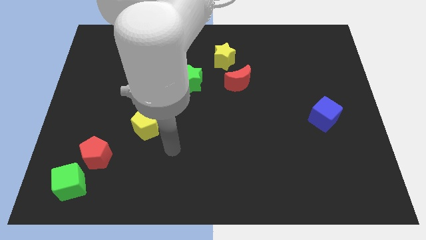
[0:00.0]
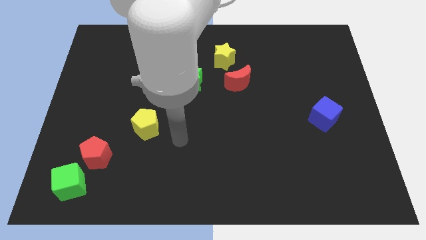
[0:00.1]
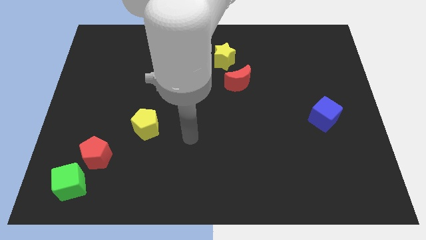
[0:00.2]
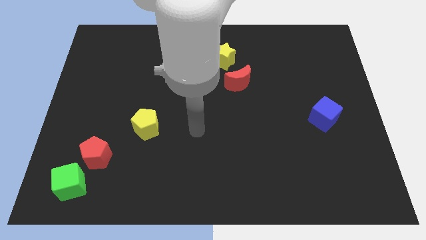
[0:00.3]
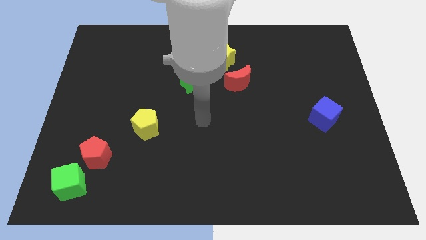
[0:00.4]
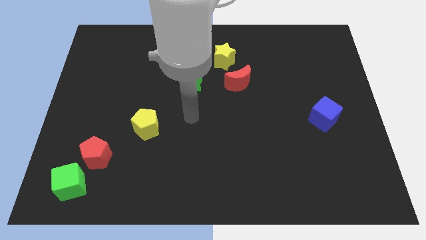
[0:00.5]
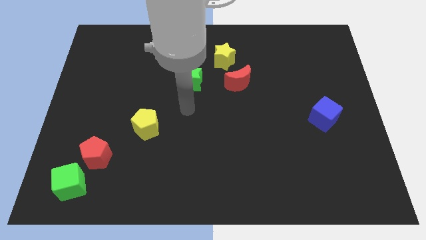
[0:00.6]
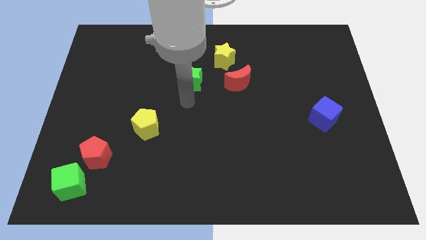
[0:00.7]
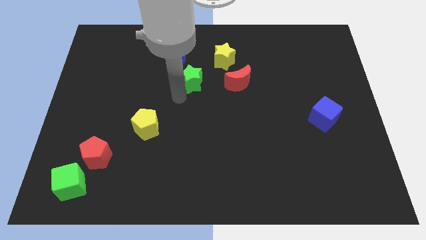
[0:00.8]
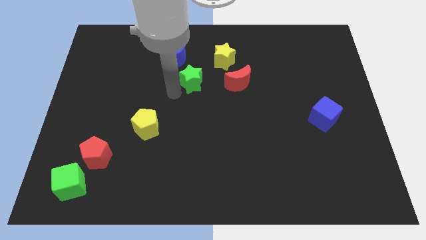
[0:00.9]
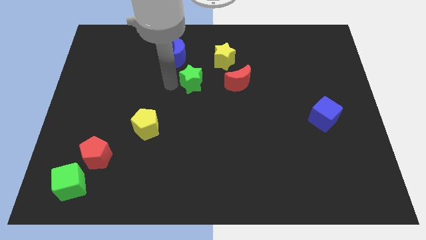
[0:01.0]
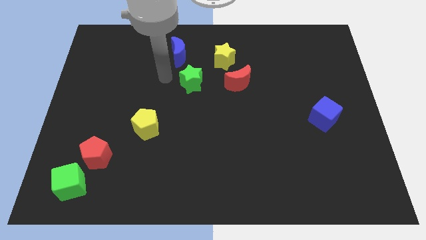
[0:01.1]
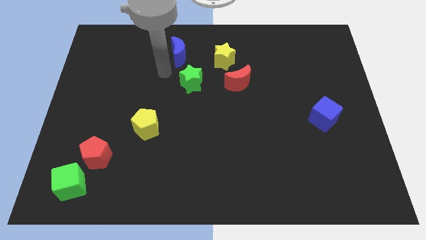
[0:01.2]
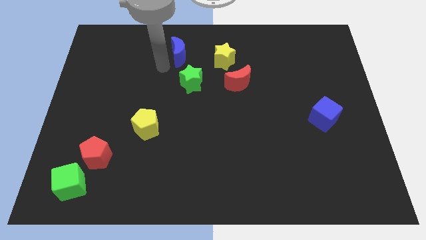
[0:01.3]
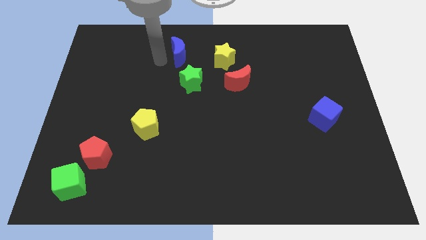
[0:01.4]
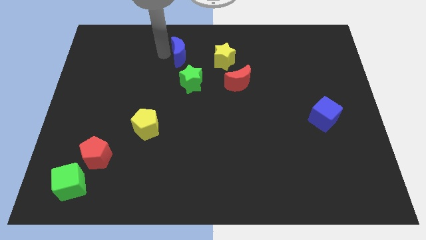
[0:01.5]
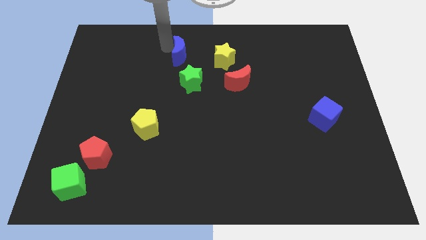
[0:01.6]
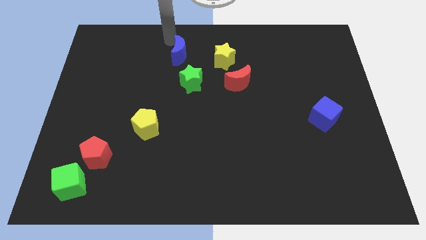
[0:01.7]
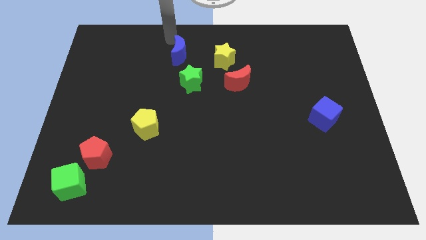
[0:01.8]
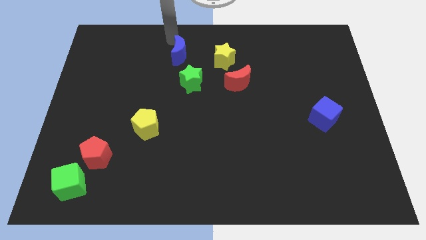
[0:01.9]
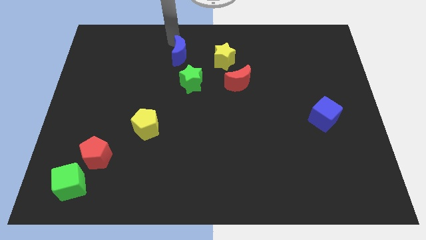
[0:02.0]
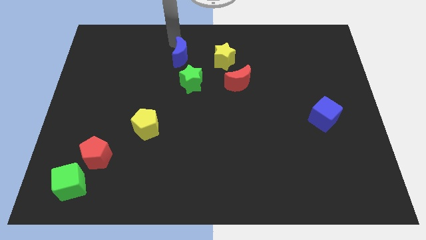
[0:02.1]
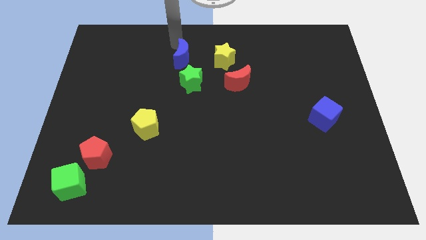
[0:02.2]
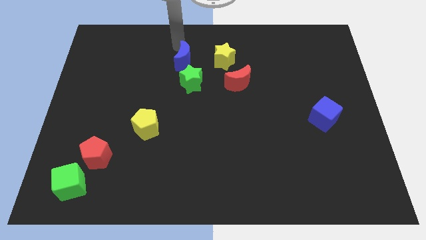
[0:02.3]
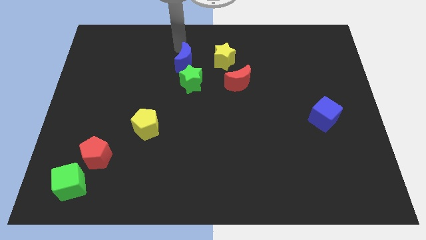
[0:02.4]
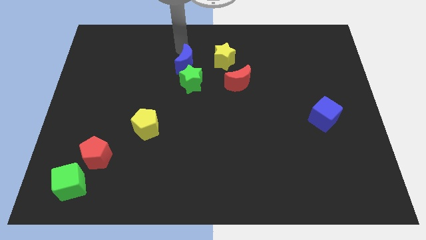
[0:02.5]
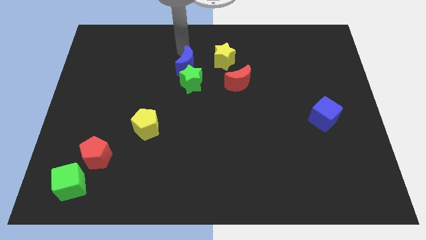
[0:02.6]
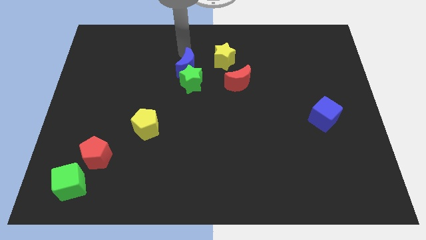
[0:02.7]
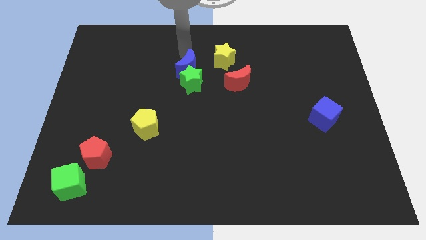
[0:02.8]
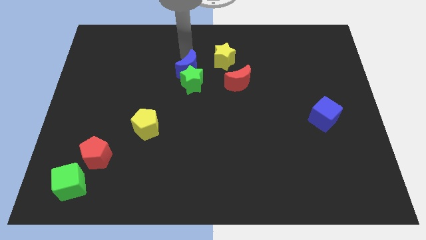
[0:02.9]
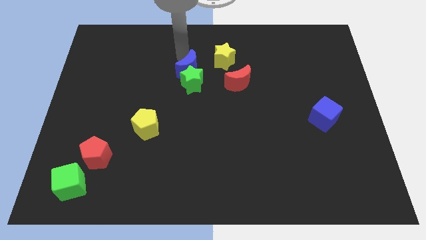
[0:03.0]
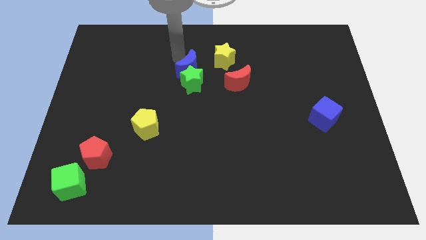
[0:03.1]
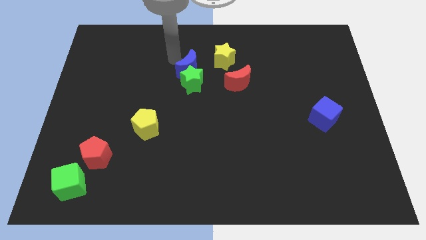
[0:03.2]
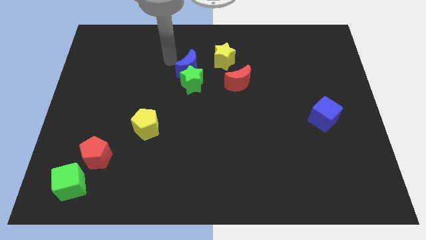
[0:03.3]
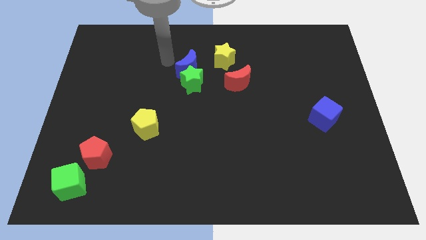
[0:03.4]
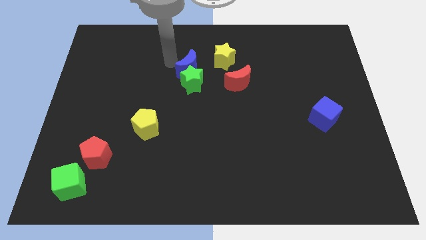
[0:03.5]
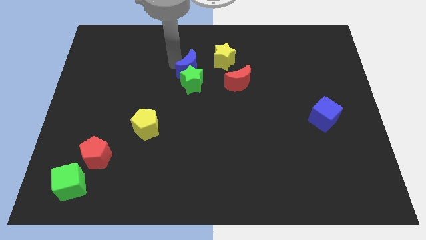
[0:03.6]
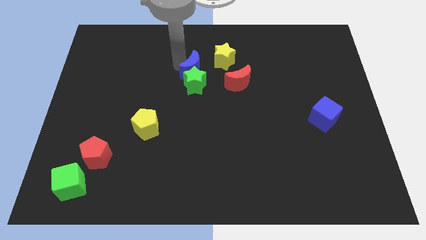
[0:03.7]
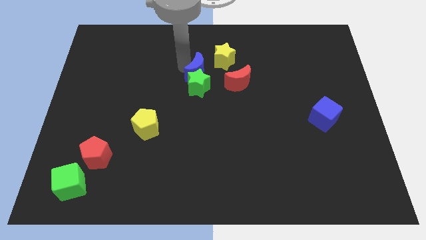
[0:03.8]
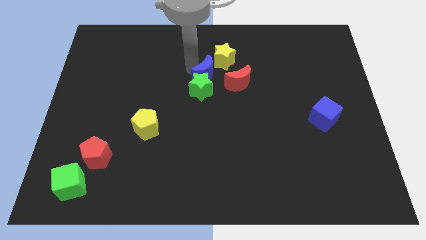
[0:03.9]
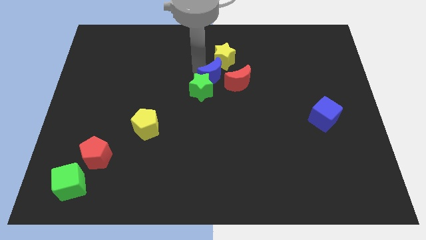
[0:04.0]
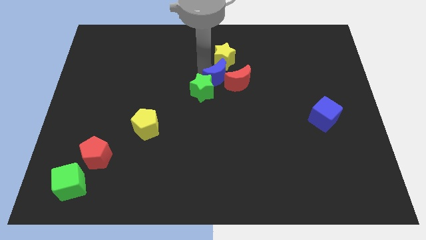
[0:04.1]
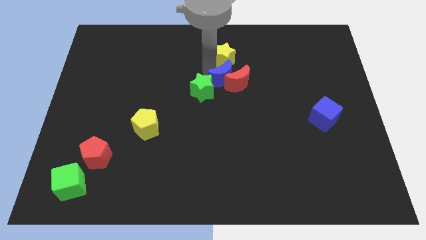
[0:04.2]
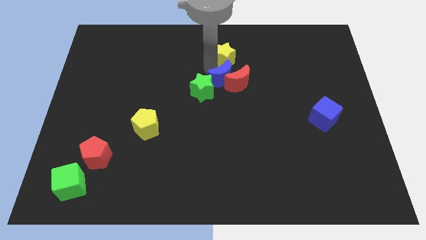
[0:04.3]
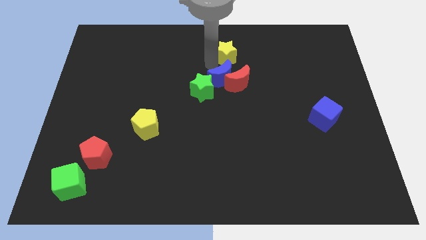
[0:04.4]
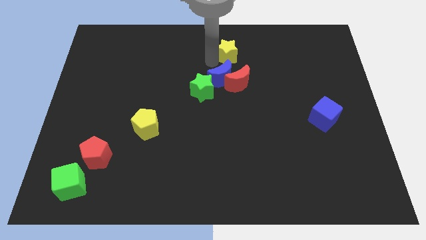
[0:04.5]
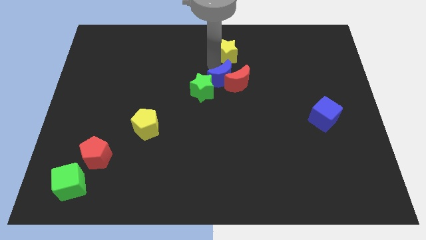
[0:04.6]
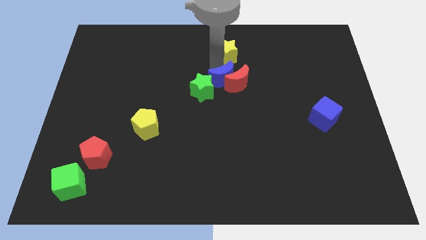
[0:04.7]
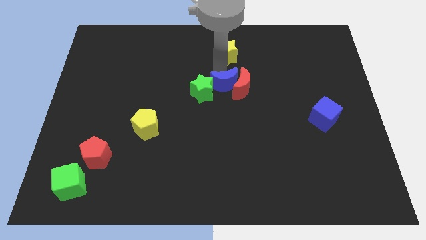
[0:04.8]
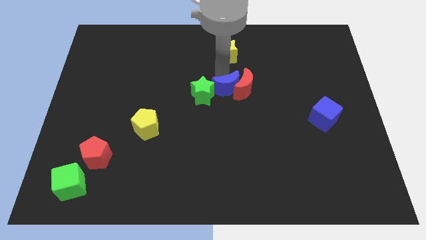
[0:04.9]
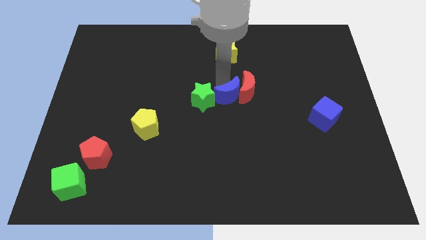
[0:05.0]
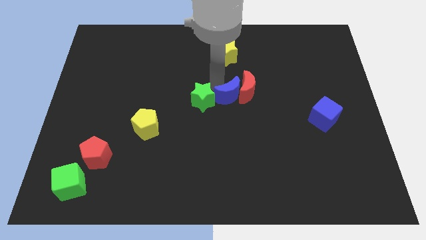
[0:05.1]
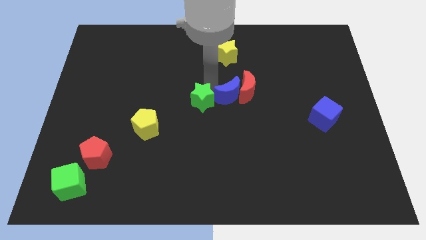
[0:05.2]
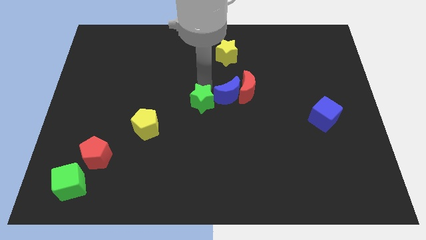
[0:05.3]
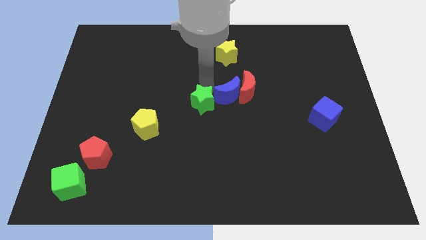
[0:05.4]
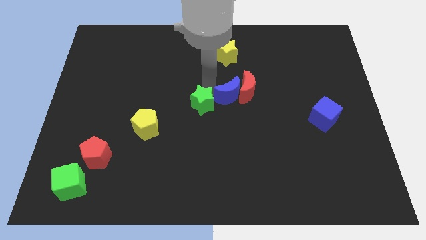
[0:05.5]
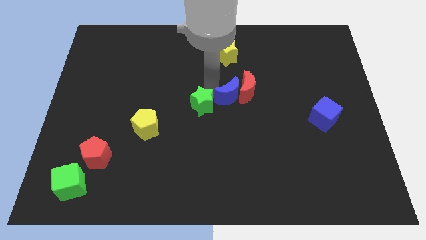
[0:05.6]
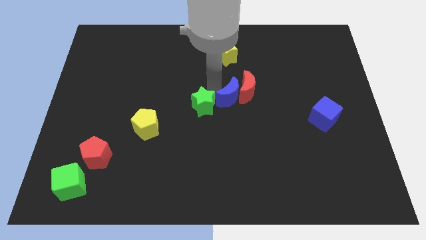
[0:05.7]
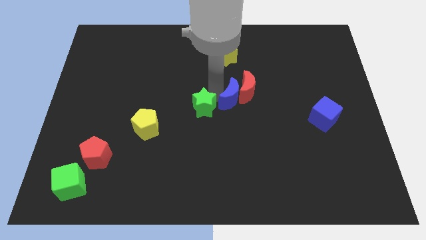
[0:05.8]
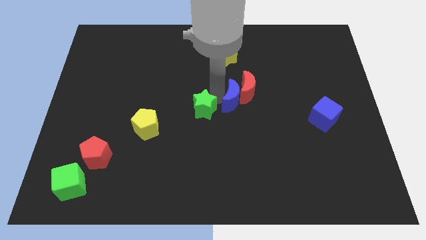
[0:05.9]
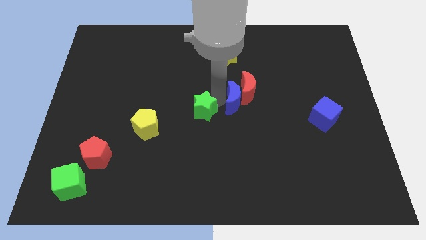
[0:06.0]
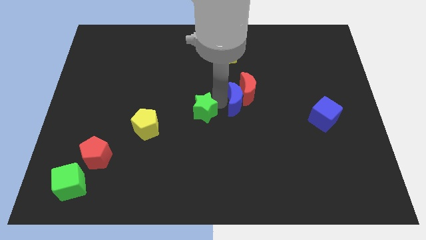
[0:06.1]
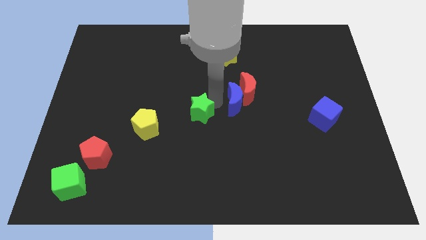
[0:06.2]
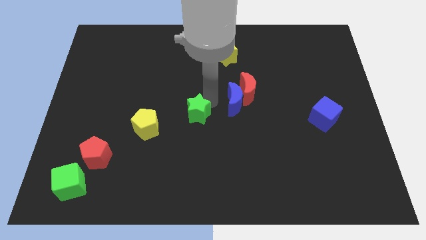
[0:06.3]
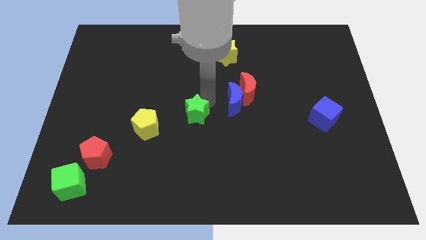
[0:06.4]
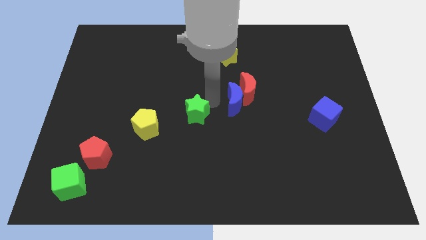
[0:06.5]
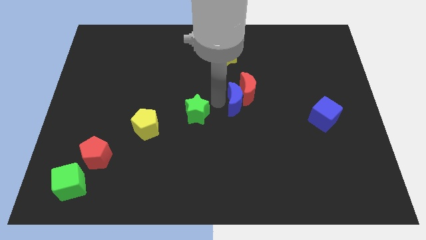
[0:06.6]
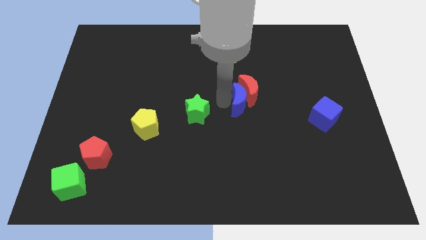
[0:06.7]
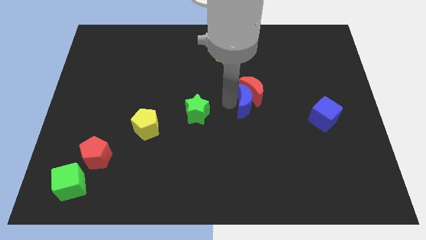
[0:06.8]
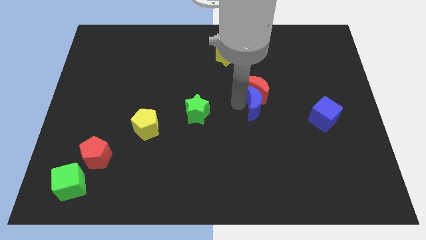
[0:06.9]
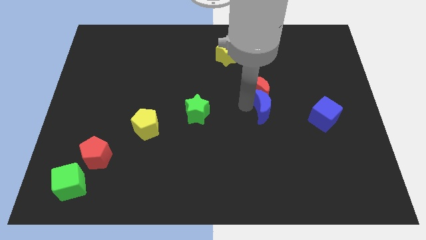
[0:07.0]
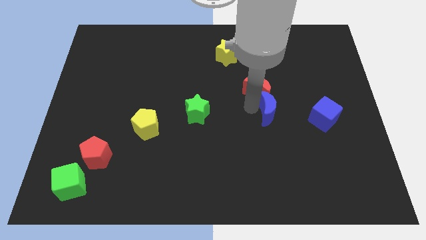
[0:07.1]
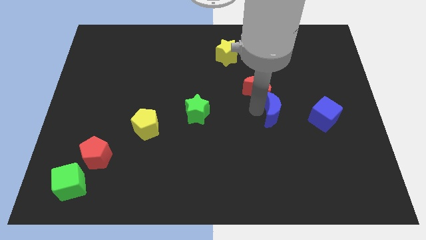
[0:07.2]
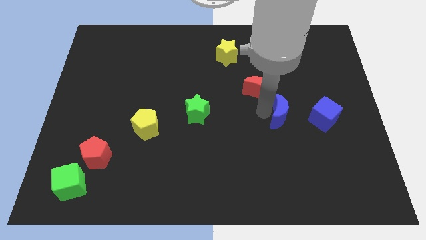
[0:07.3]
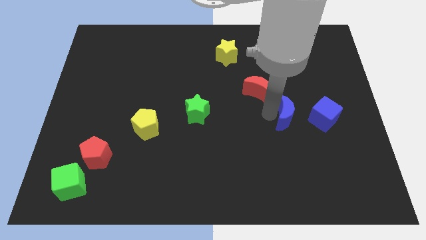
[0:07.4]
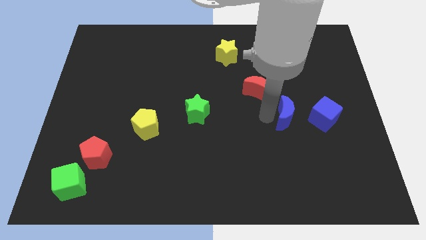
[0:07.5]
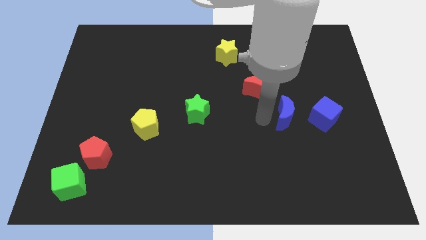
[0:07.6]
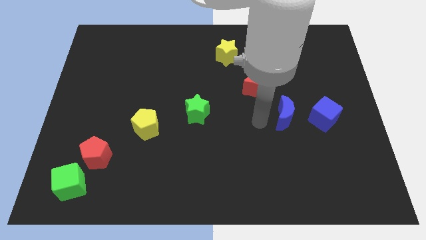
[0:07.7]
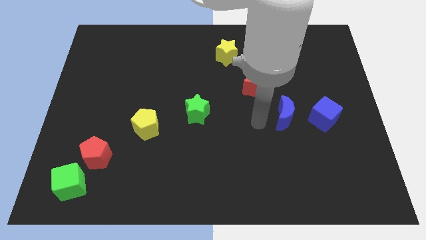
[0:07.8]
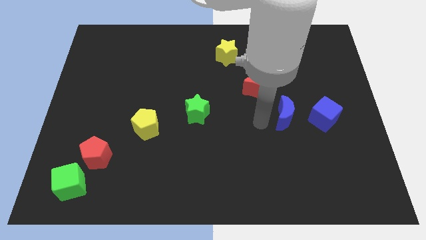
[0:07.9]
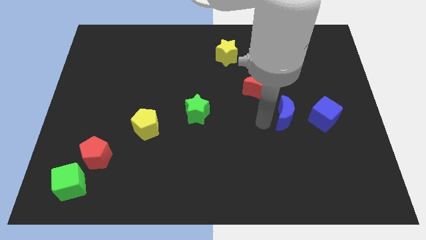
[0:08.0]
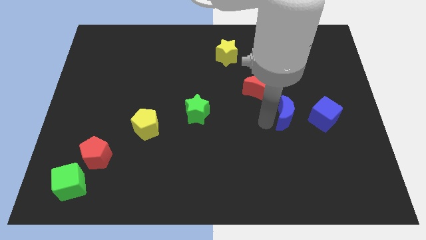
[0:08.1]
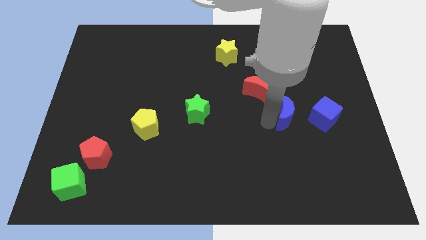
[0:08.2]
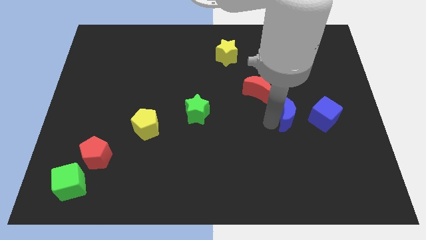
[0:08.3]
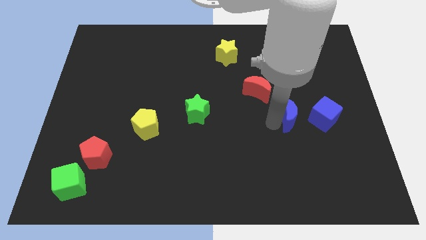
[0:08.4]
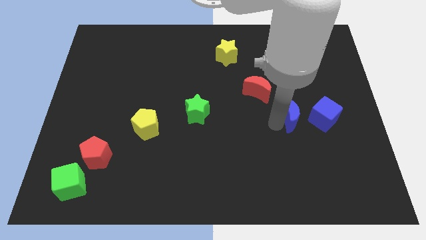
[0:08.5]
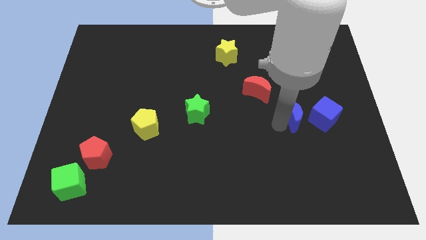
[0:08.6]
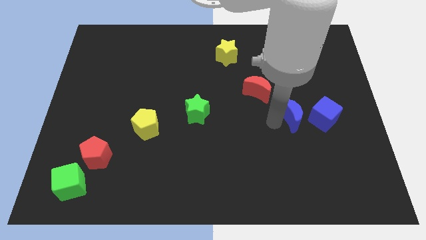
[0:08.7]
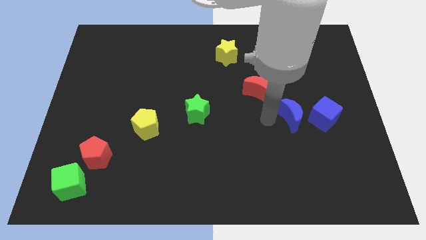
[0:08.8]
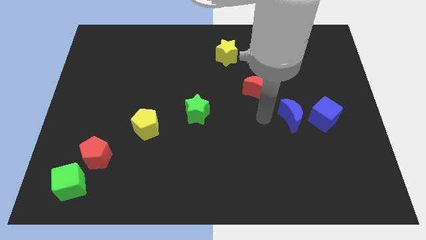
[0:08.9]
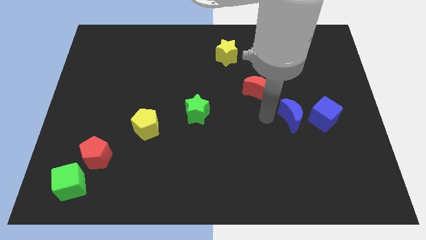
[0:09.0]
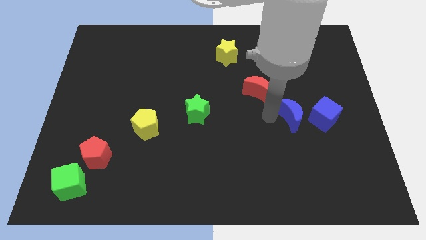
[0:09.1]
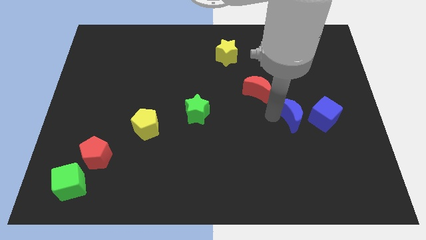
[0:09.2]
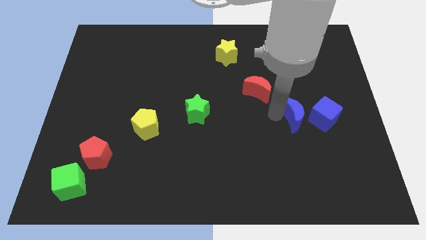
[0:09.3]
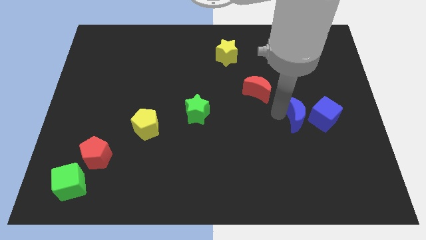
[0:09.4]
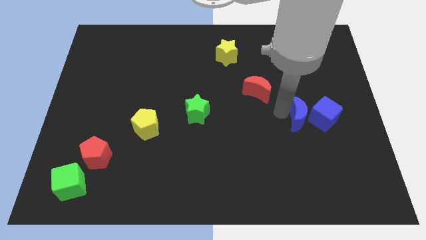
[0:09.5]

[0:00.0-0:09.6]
move the blue moon close to the blue cube
